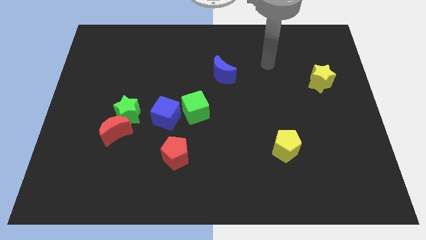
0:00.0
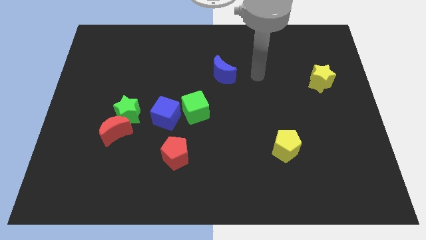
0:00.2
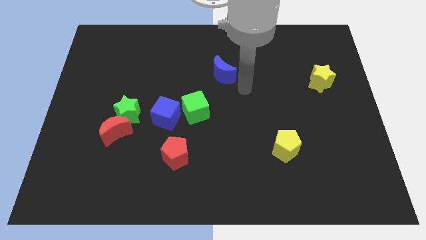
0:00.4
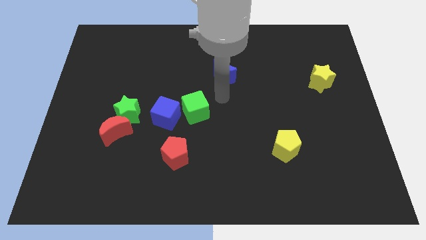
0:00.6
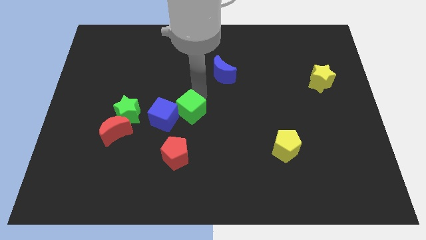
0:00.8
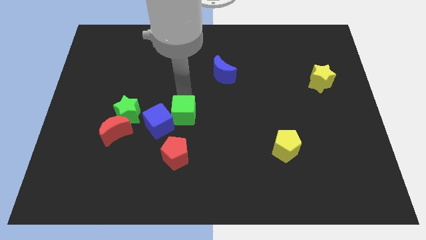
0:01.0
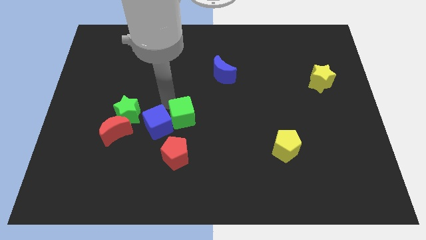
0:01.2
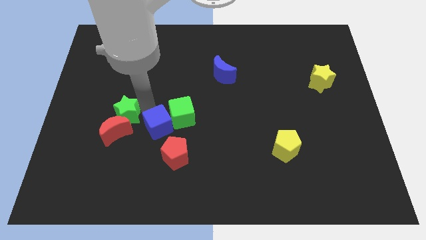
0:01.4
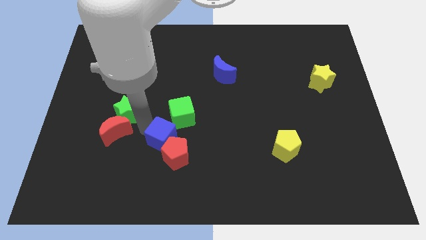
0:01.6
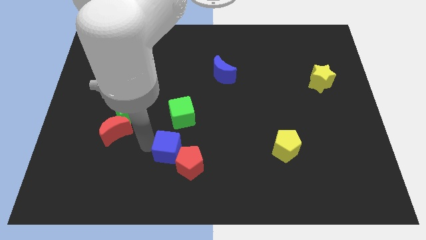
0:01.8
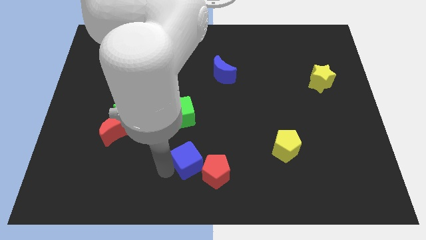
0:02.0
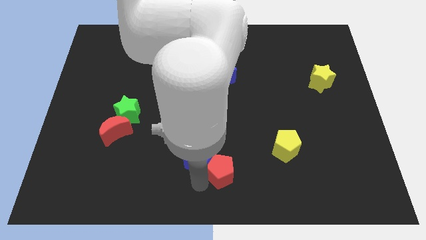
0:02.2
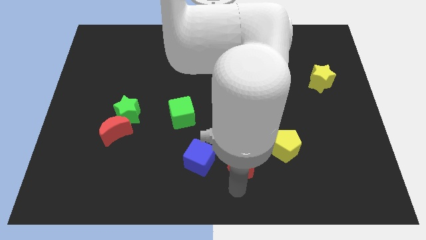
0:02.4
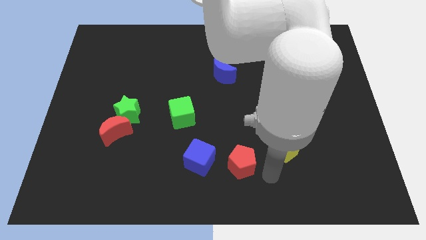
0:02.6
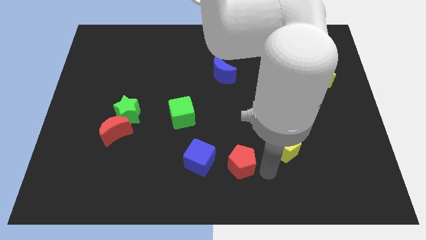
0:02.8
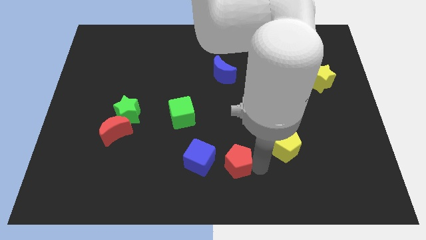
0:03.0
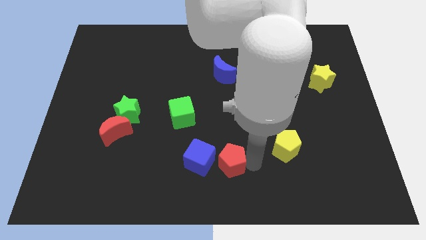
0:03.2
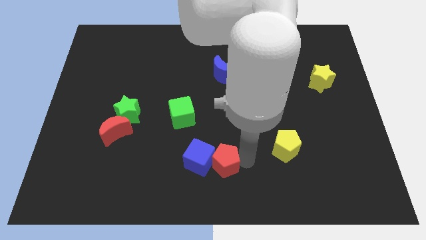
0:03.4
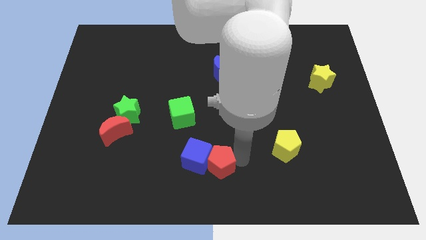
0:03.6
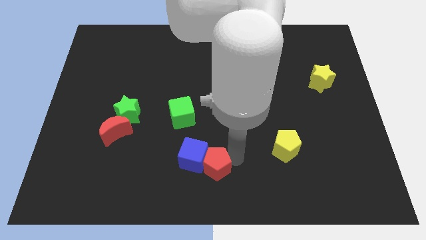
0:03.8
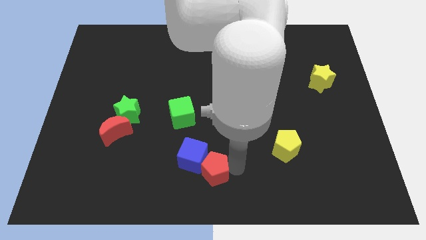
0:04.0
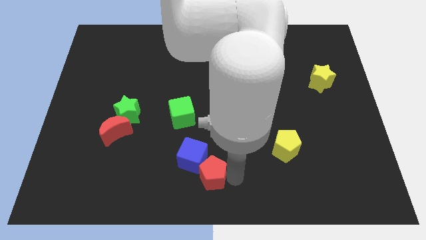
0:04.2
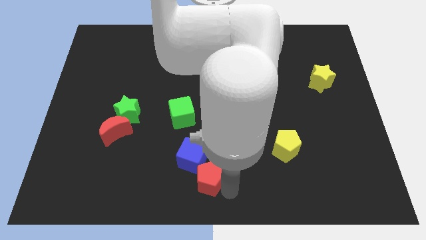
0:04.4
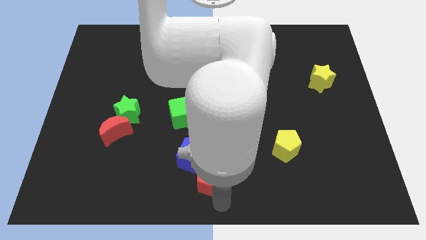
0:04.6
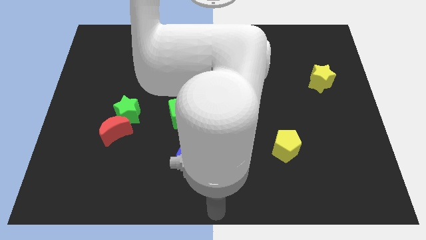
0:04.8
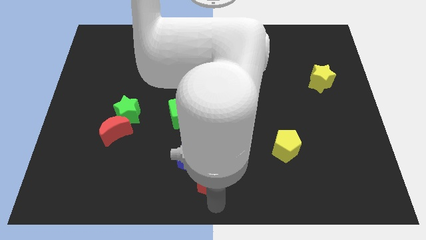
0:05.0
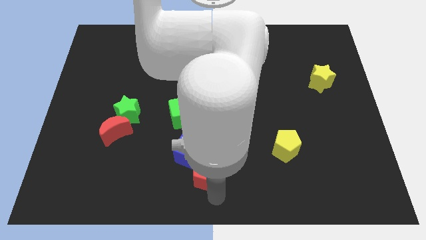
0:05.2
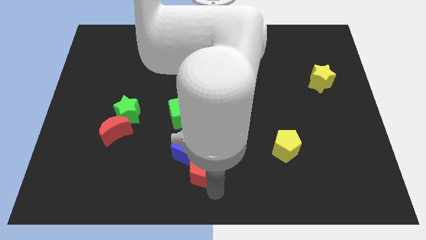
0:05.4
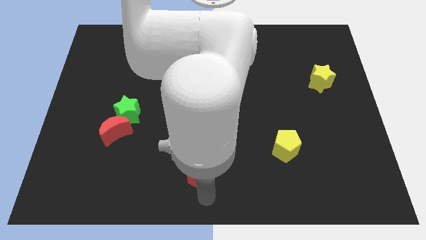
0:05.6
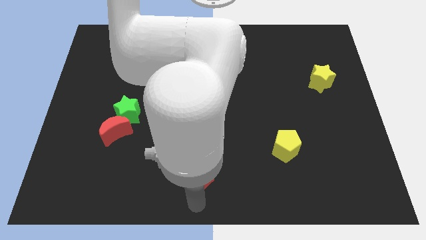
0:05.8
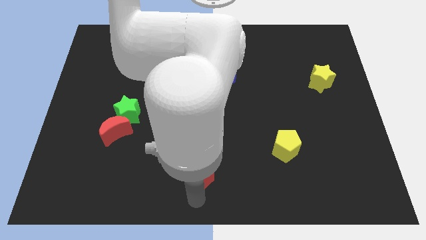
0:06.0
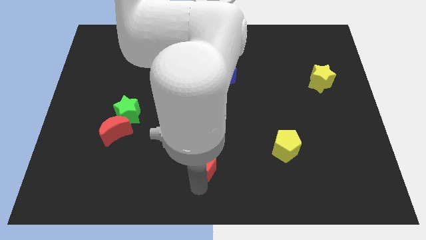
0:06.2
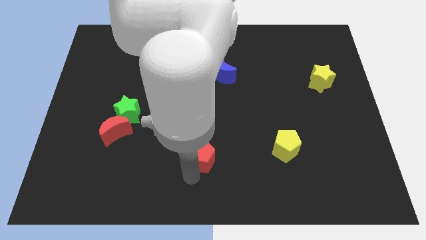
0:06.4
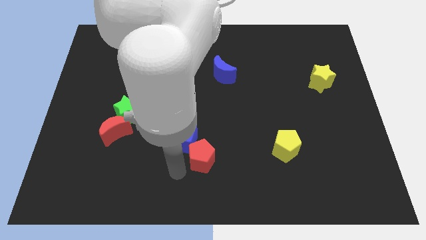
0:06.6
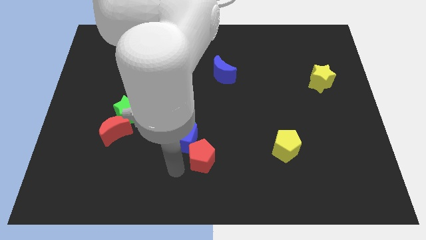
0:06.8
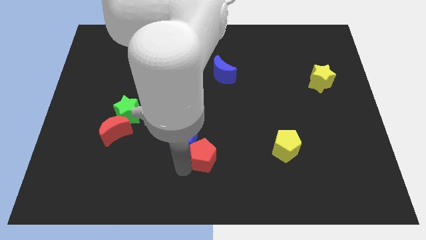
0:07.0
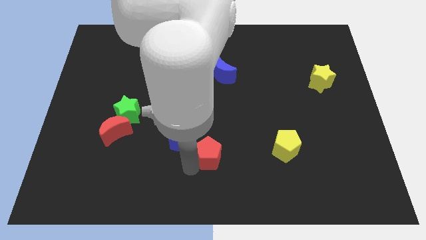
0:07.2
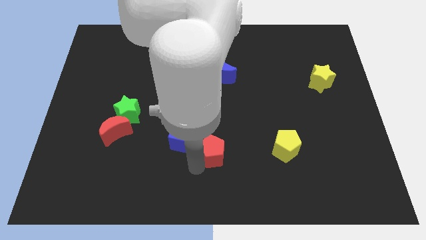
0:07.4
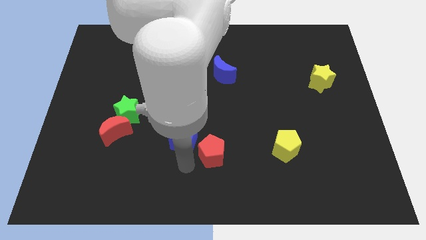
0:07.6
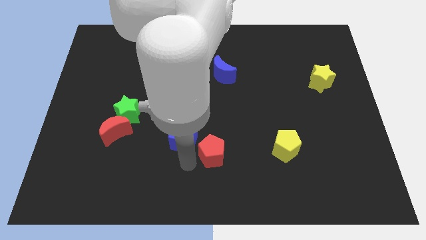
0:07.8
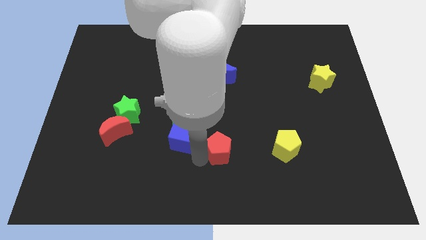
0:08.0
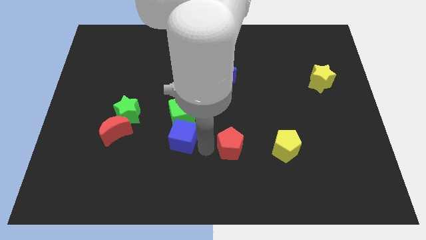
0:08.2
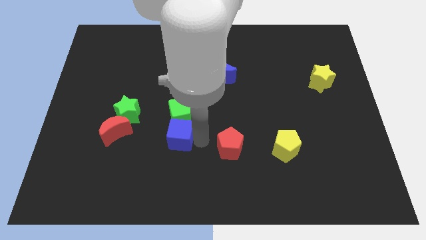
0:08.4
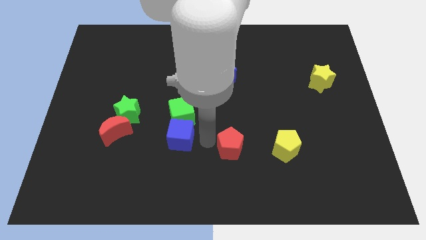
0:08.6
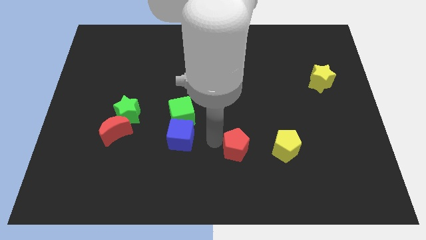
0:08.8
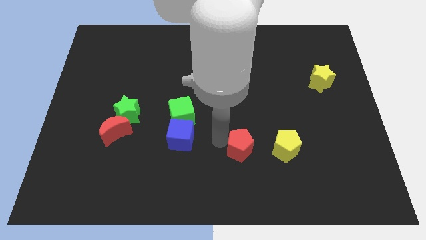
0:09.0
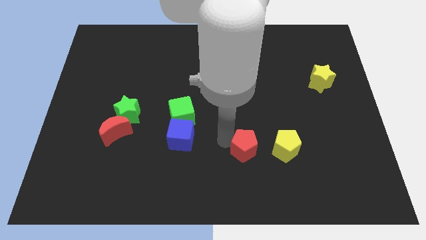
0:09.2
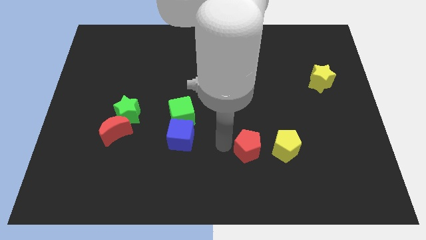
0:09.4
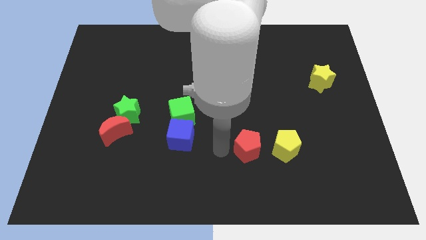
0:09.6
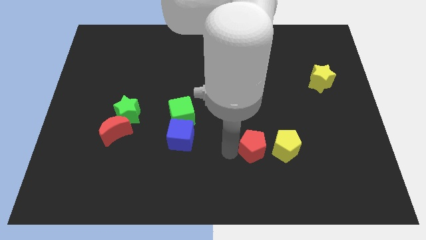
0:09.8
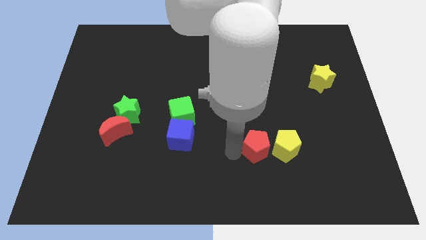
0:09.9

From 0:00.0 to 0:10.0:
put the red pentagon to the yellow pentagon

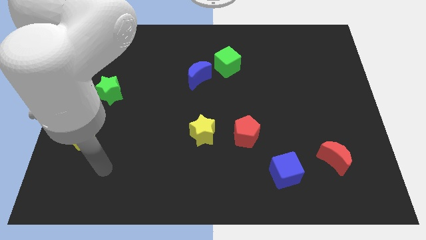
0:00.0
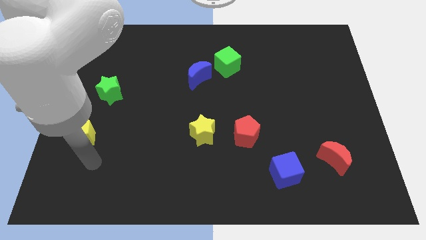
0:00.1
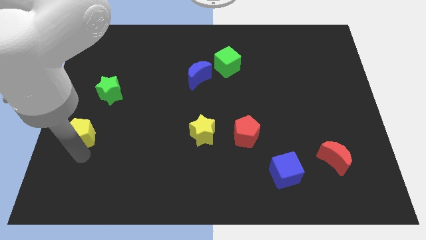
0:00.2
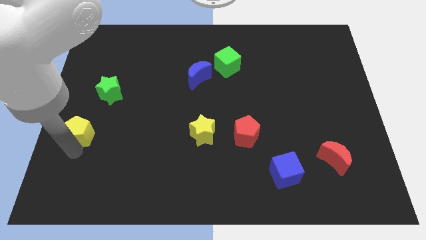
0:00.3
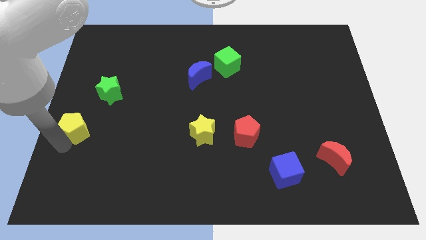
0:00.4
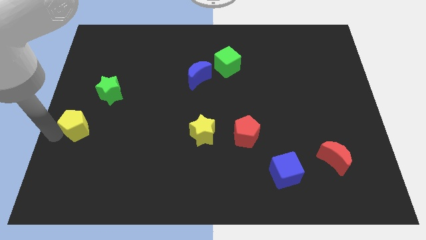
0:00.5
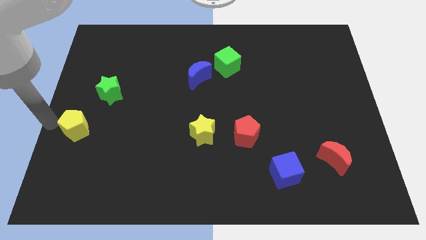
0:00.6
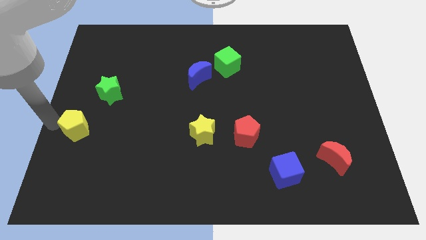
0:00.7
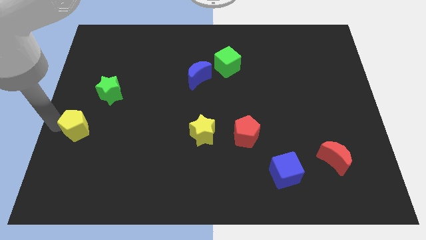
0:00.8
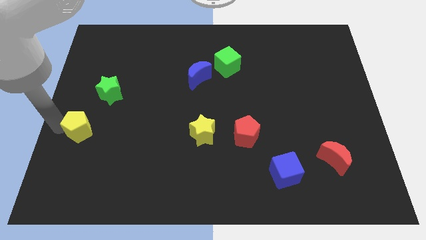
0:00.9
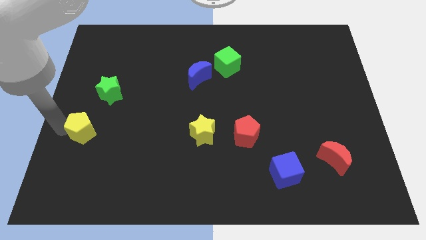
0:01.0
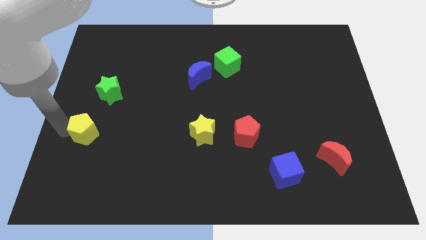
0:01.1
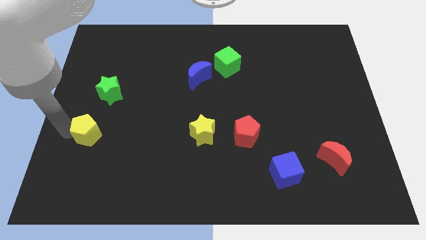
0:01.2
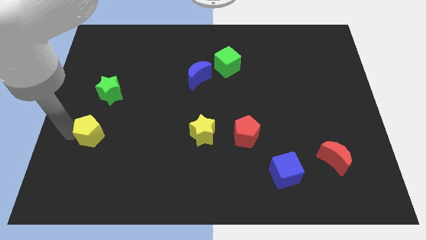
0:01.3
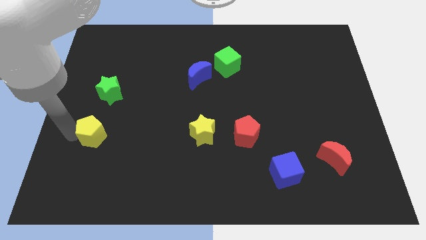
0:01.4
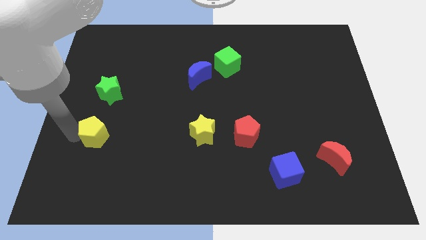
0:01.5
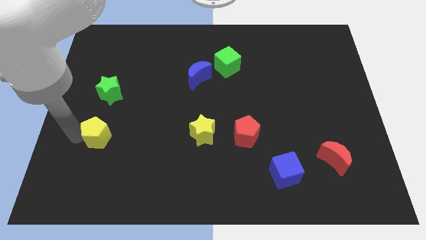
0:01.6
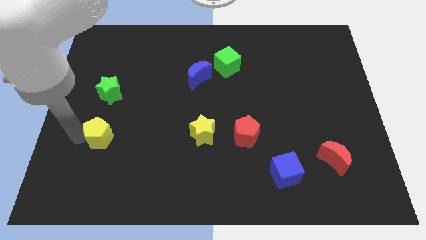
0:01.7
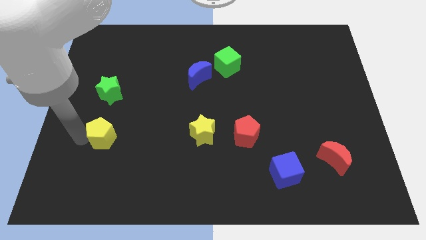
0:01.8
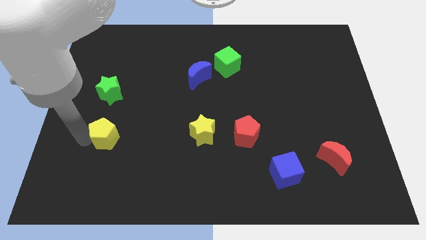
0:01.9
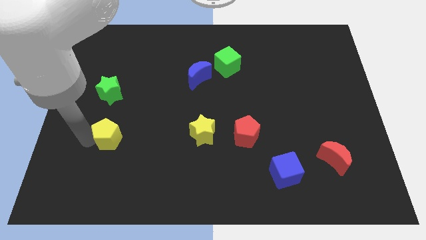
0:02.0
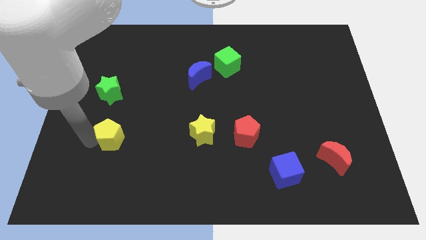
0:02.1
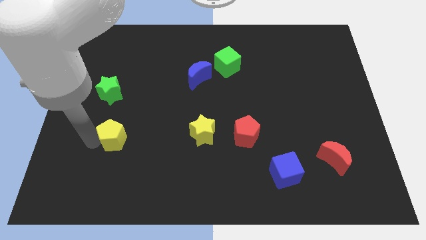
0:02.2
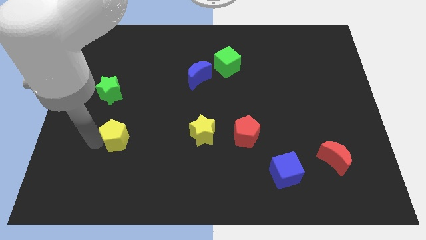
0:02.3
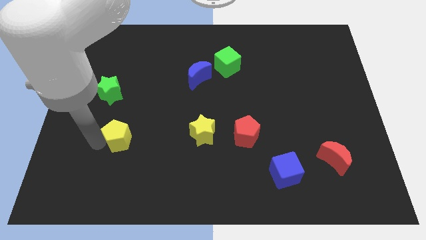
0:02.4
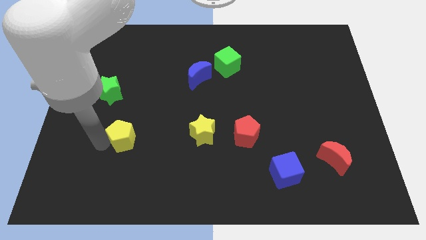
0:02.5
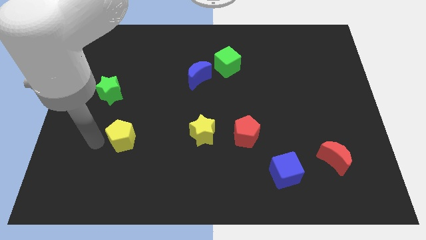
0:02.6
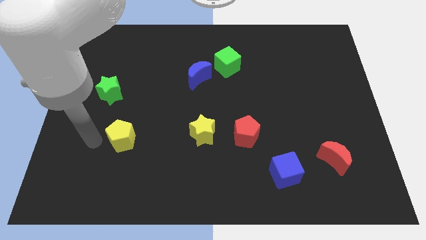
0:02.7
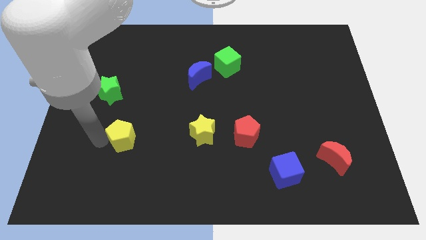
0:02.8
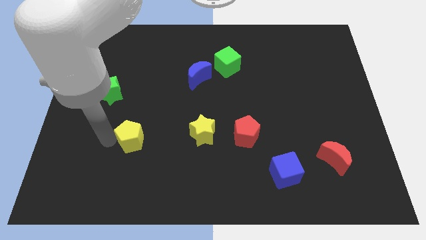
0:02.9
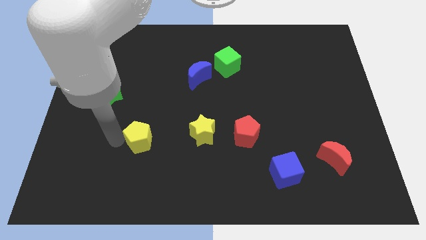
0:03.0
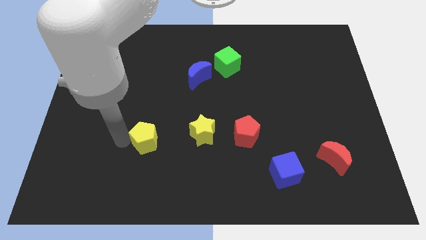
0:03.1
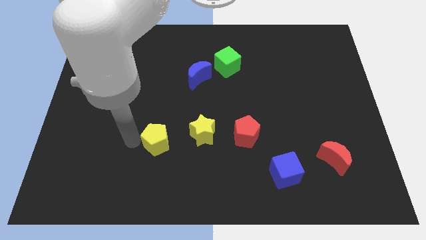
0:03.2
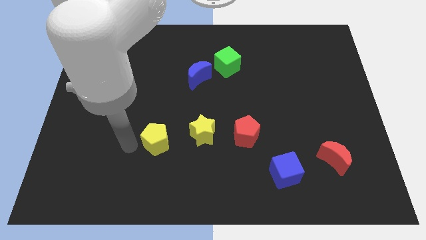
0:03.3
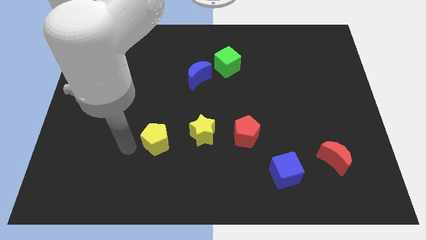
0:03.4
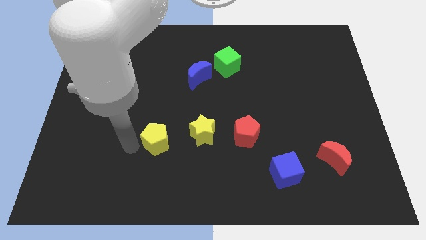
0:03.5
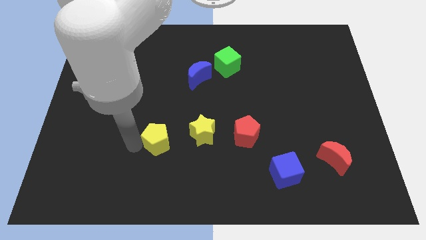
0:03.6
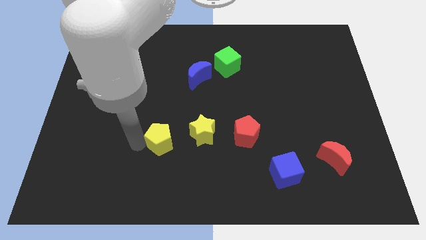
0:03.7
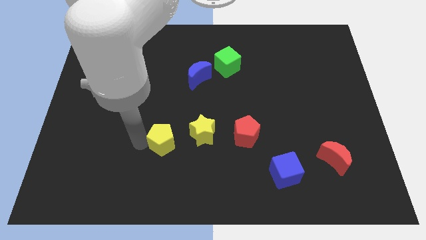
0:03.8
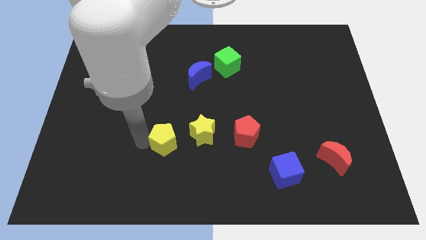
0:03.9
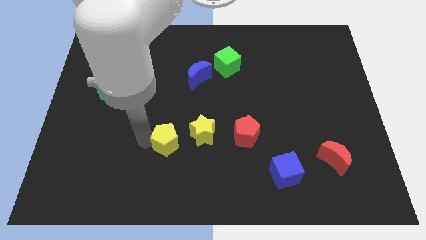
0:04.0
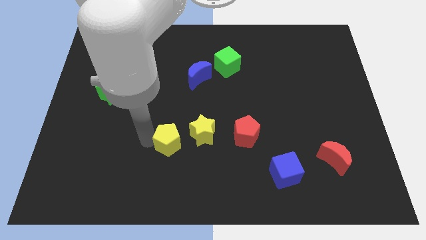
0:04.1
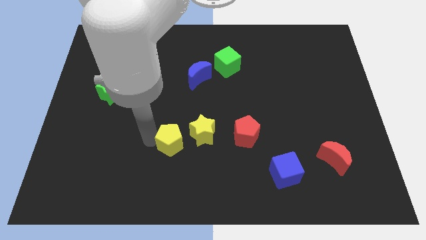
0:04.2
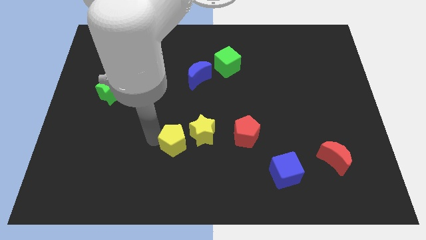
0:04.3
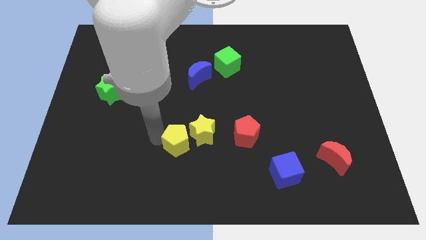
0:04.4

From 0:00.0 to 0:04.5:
push the yellow pentagon close to the yellow star
